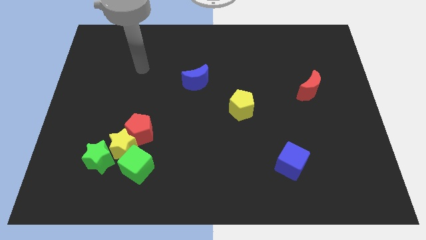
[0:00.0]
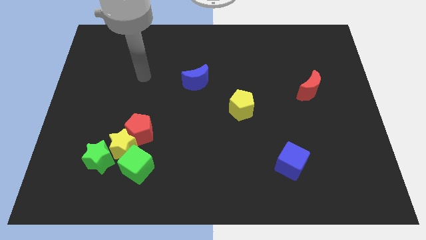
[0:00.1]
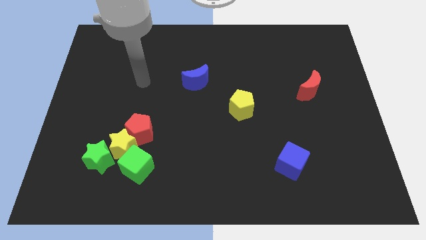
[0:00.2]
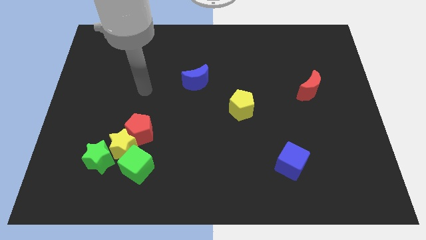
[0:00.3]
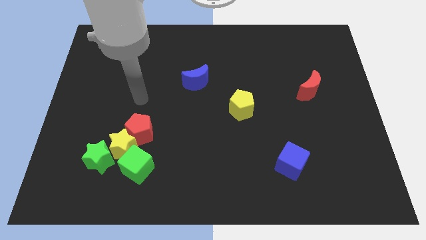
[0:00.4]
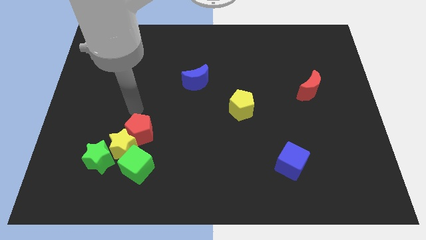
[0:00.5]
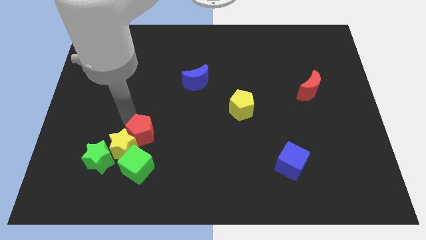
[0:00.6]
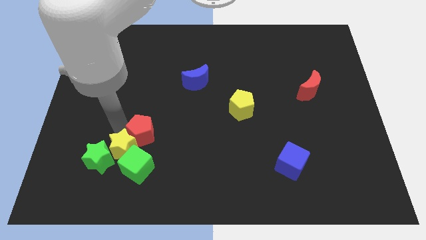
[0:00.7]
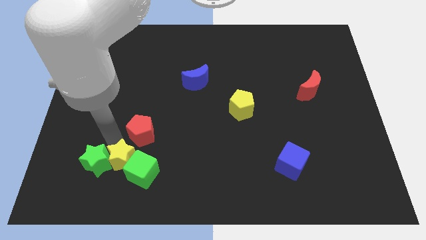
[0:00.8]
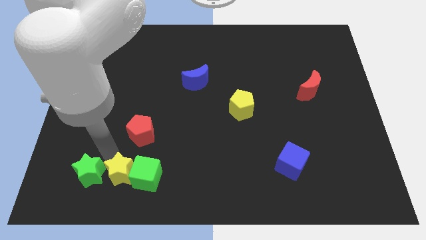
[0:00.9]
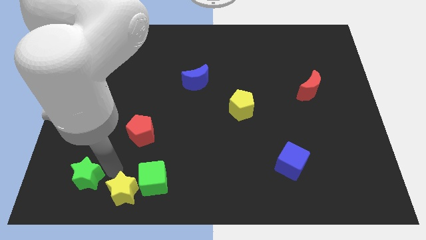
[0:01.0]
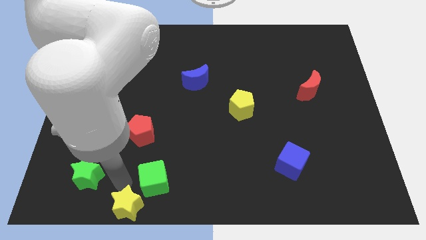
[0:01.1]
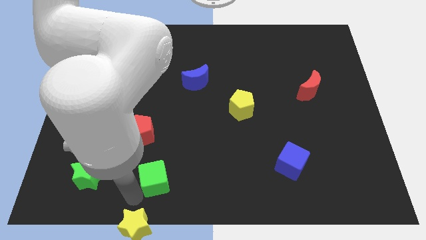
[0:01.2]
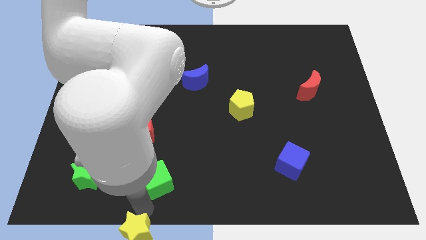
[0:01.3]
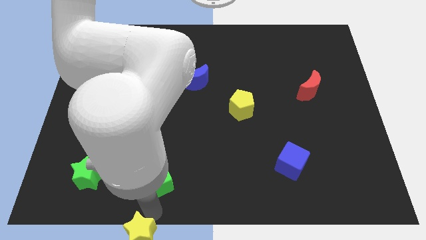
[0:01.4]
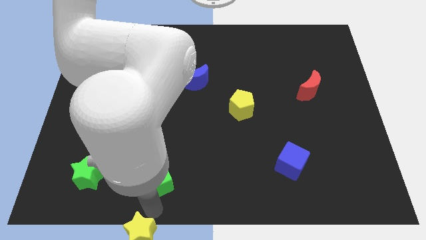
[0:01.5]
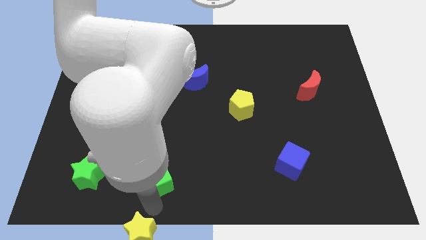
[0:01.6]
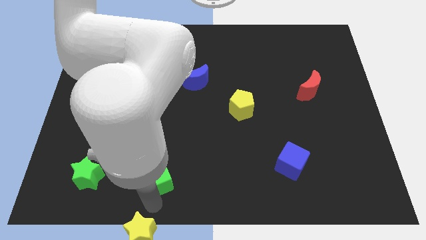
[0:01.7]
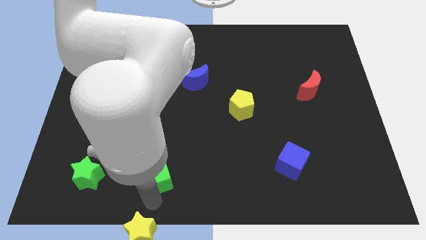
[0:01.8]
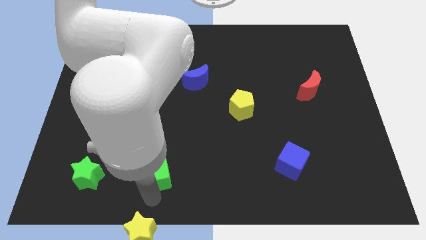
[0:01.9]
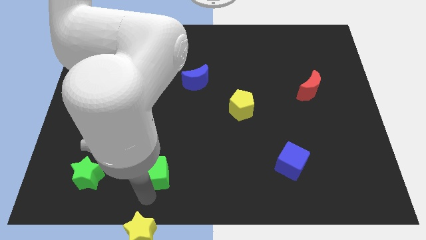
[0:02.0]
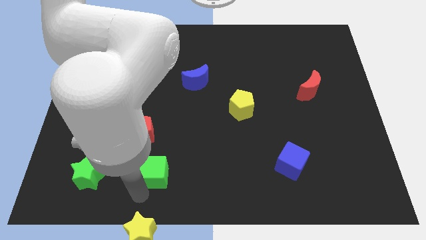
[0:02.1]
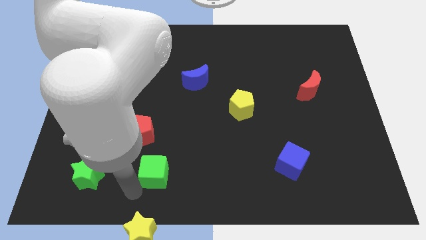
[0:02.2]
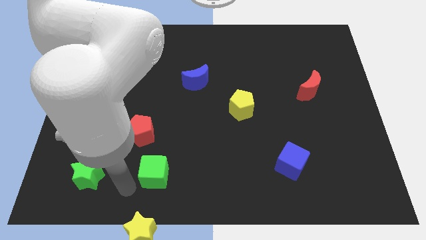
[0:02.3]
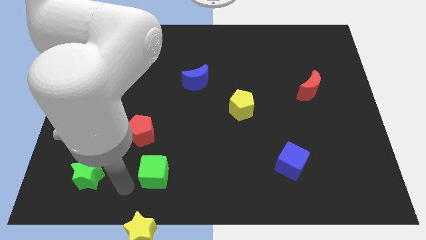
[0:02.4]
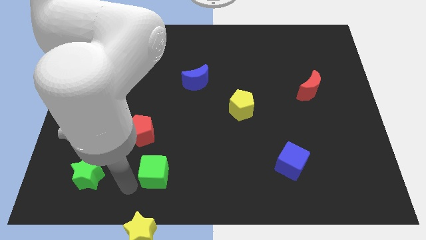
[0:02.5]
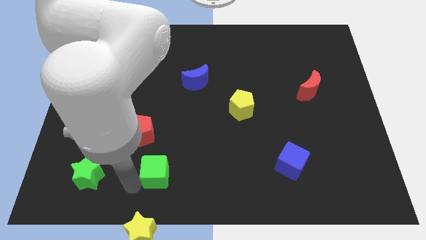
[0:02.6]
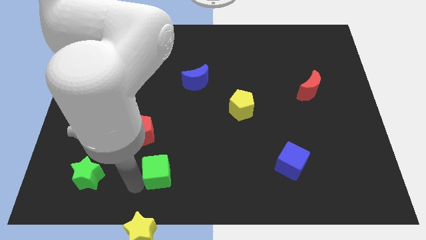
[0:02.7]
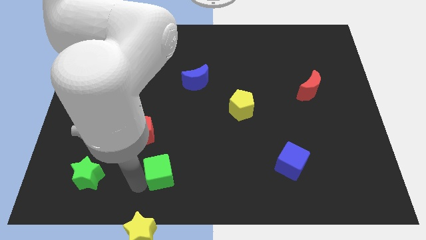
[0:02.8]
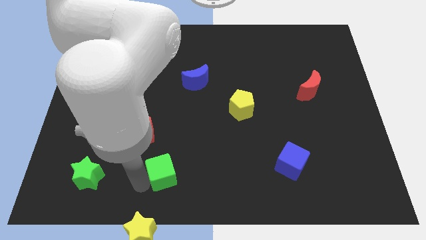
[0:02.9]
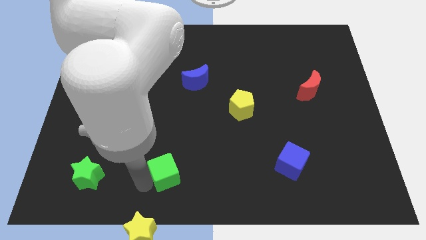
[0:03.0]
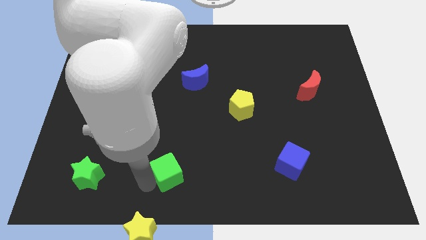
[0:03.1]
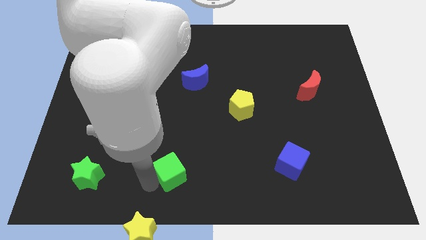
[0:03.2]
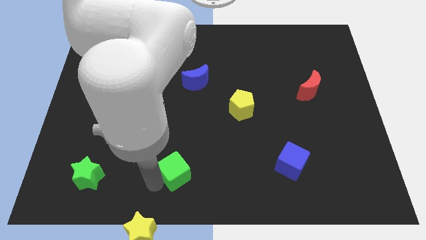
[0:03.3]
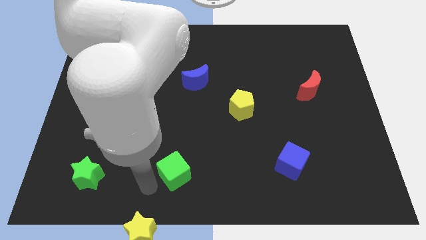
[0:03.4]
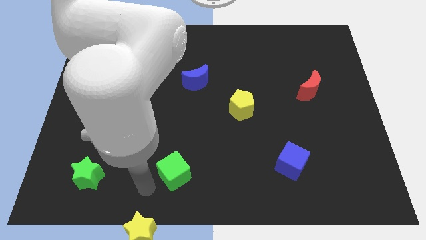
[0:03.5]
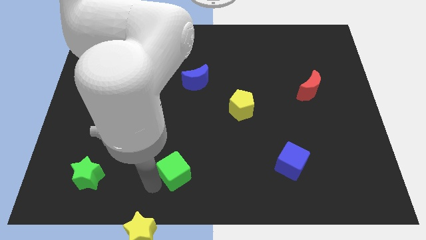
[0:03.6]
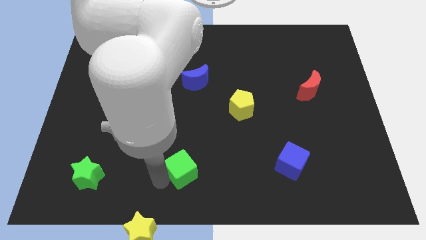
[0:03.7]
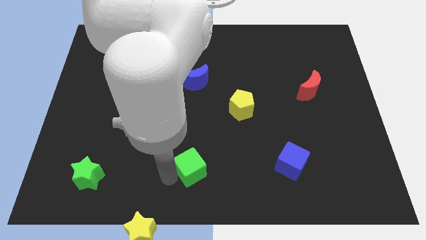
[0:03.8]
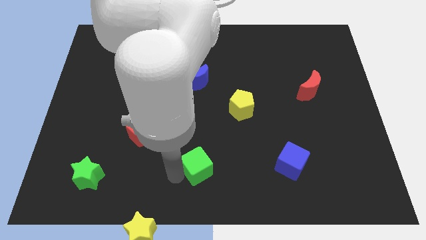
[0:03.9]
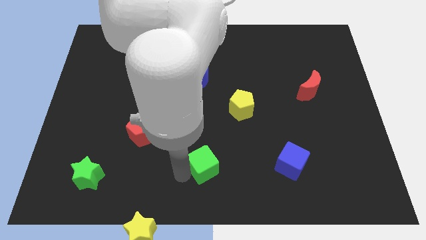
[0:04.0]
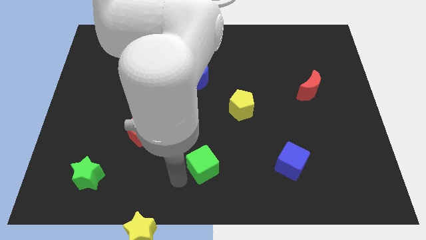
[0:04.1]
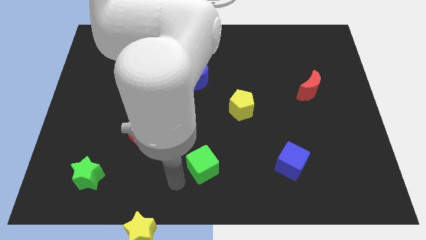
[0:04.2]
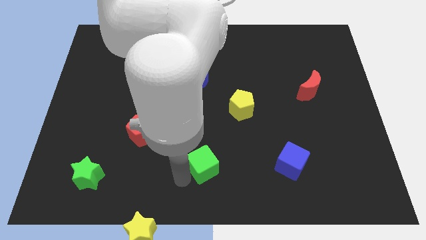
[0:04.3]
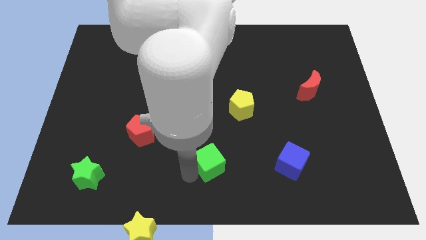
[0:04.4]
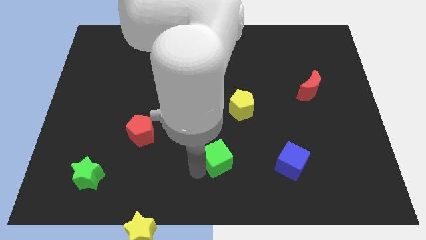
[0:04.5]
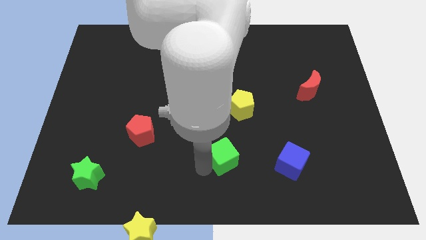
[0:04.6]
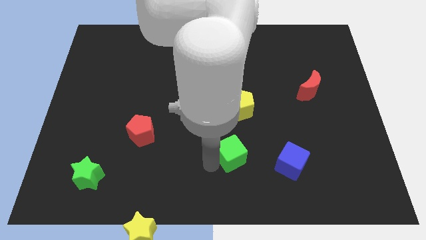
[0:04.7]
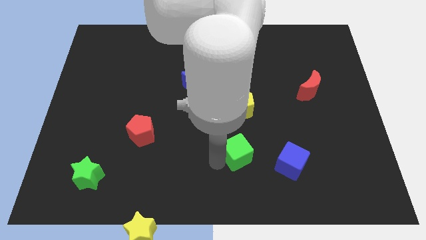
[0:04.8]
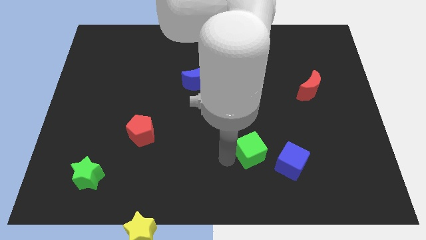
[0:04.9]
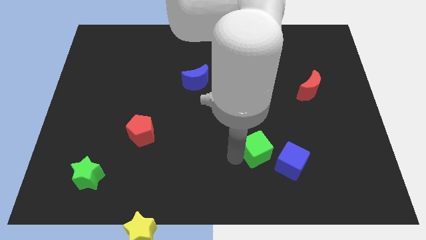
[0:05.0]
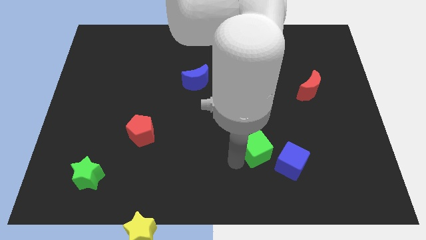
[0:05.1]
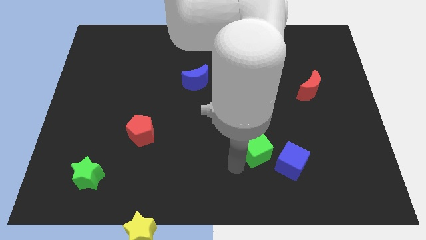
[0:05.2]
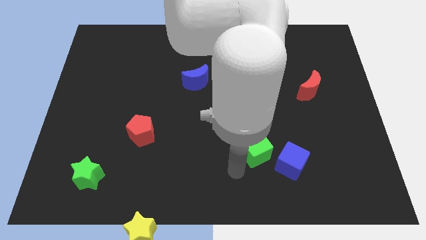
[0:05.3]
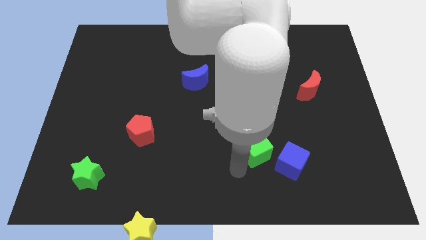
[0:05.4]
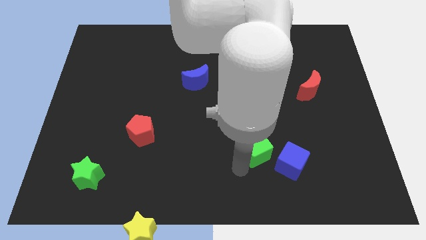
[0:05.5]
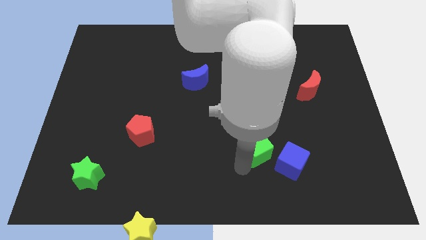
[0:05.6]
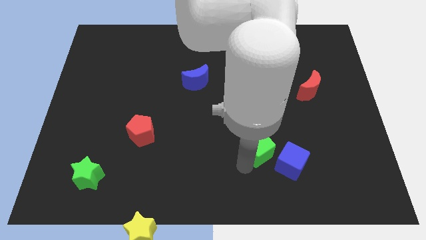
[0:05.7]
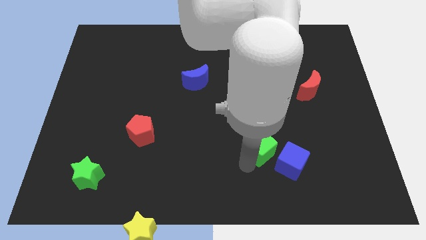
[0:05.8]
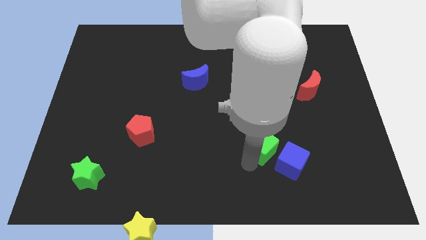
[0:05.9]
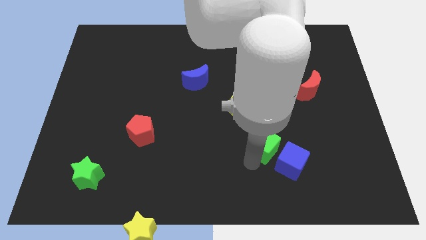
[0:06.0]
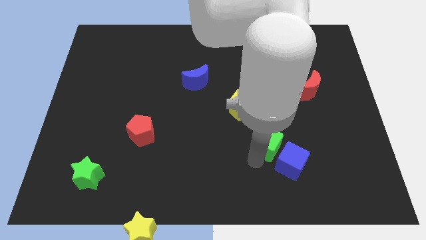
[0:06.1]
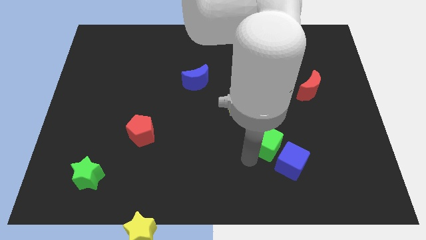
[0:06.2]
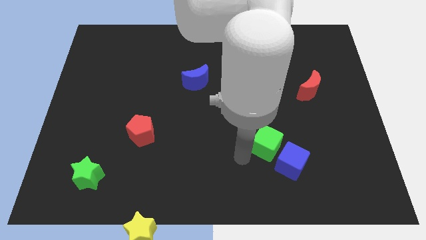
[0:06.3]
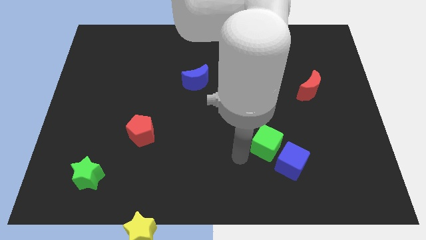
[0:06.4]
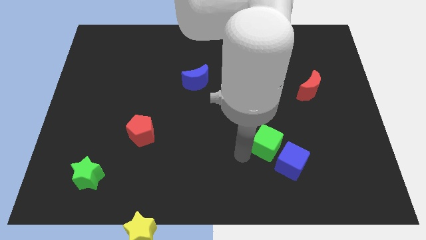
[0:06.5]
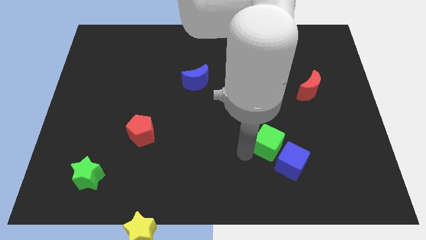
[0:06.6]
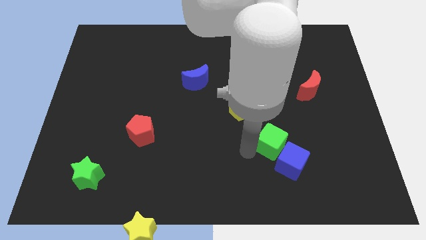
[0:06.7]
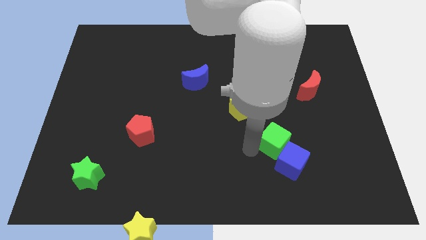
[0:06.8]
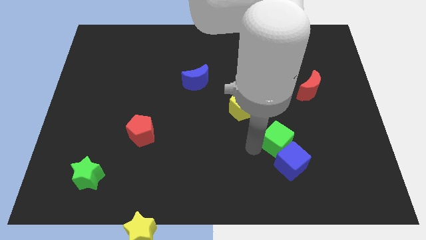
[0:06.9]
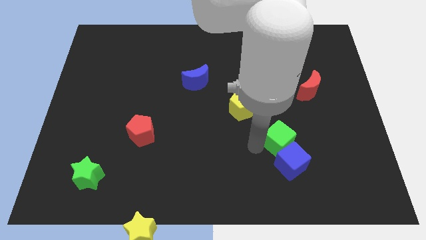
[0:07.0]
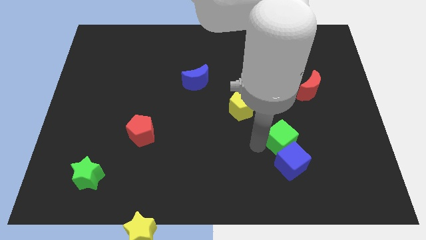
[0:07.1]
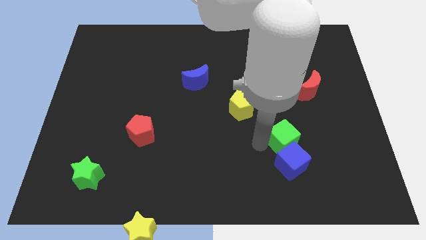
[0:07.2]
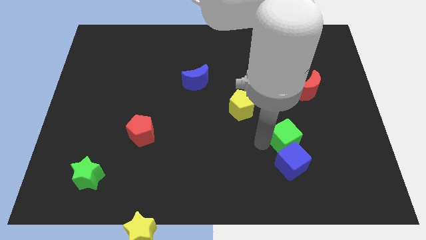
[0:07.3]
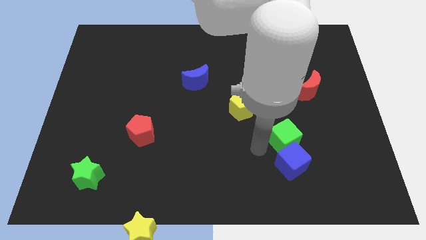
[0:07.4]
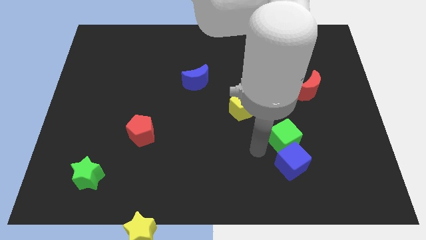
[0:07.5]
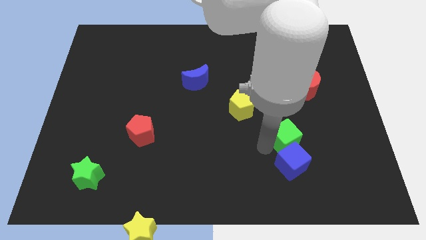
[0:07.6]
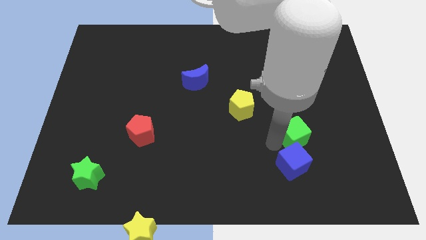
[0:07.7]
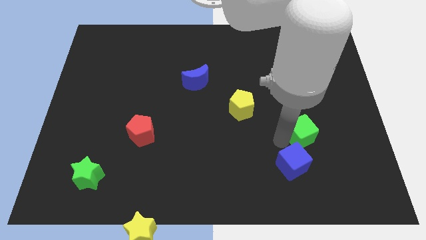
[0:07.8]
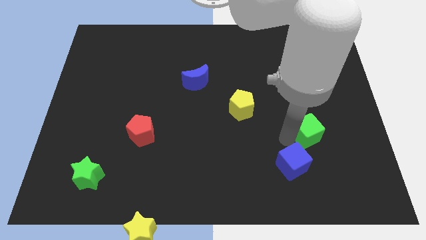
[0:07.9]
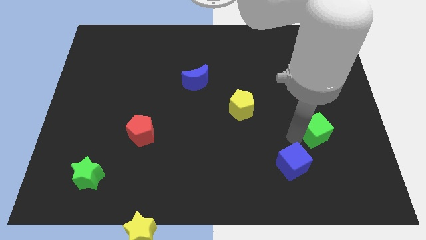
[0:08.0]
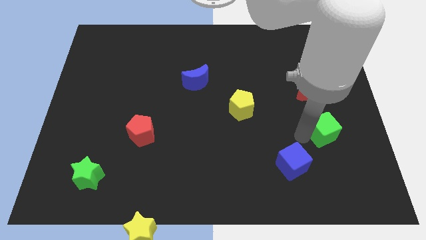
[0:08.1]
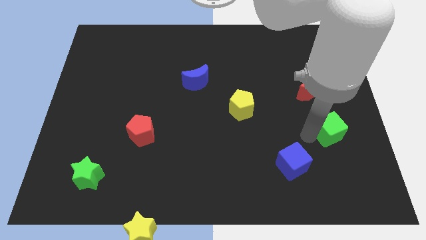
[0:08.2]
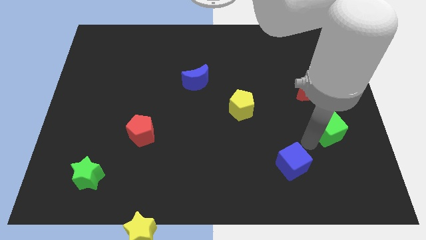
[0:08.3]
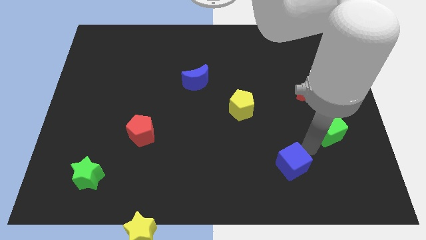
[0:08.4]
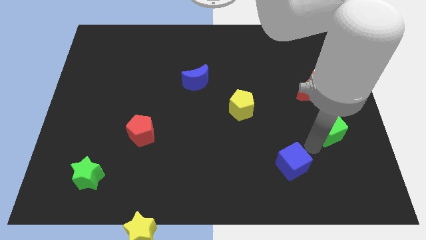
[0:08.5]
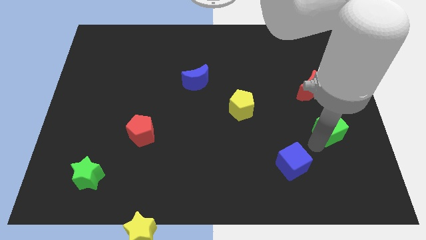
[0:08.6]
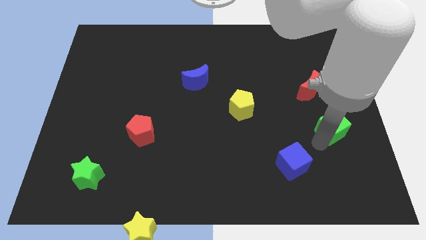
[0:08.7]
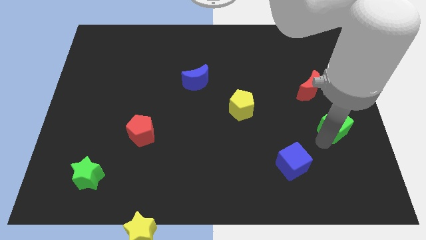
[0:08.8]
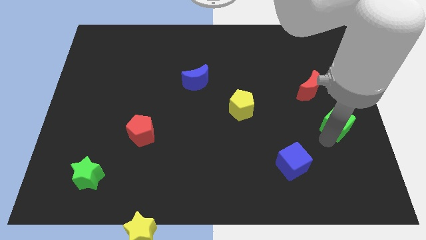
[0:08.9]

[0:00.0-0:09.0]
put the green cube to the center right
